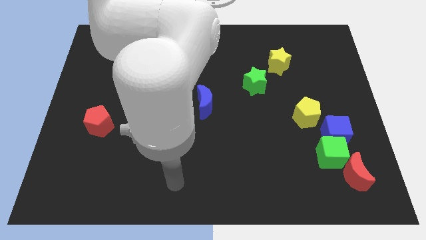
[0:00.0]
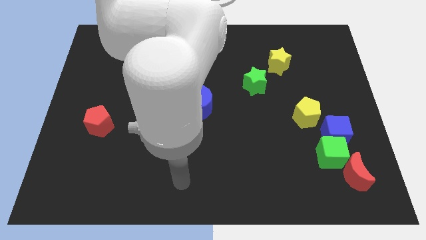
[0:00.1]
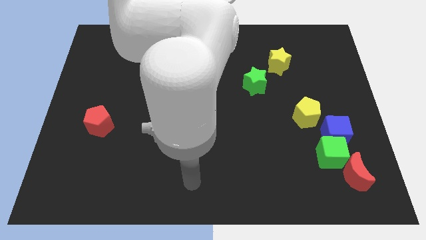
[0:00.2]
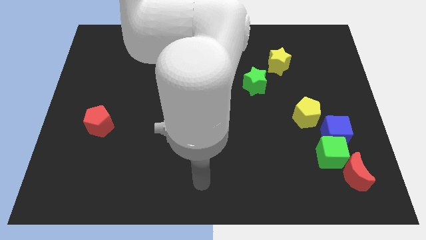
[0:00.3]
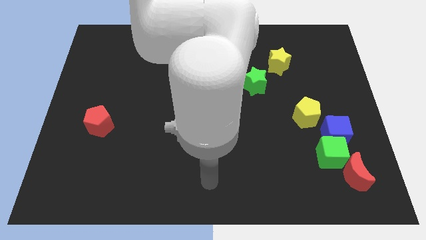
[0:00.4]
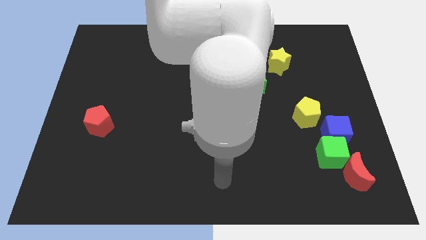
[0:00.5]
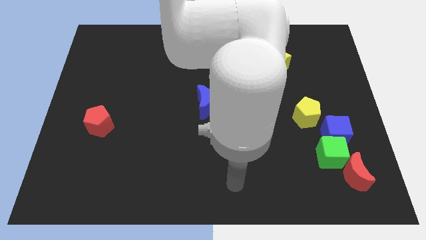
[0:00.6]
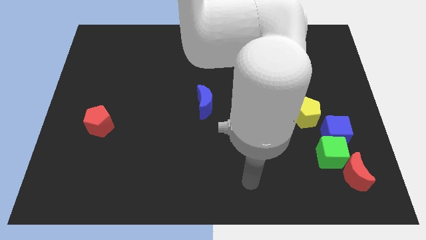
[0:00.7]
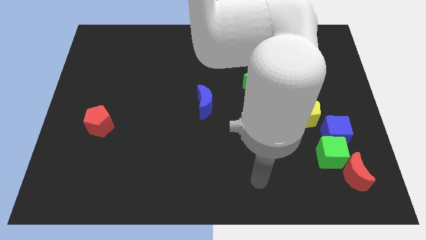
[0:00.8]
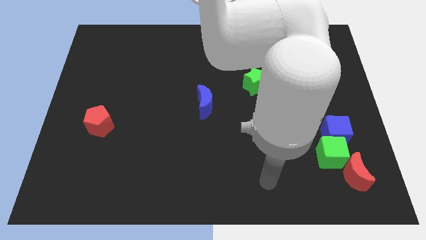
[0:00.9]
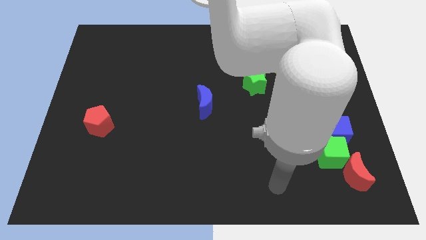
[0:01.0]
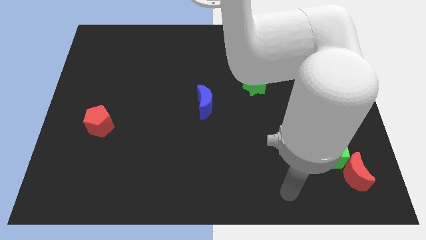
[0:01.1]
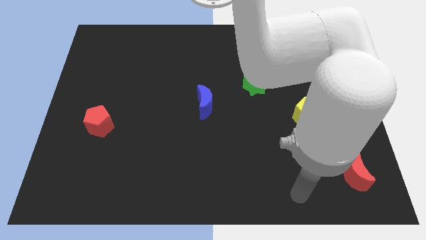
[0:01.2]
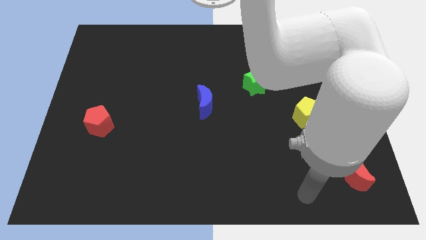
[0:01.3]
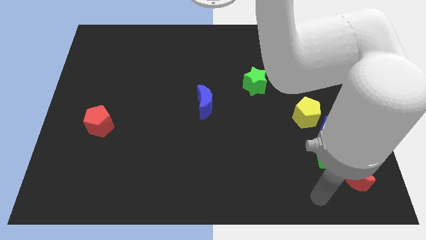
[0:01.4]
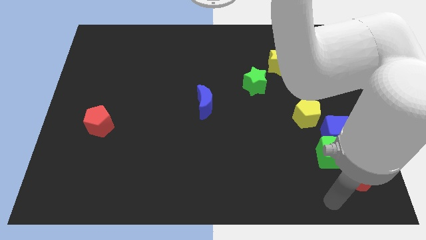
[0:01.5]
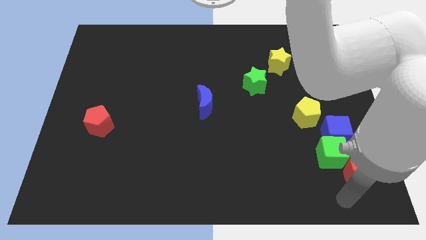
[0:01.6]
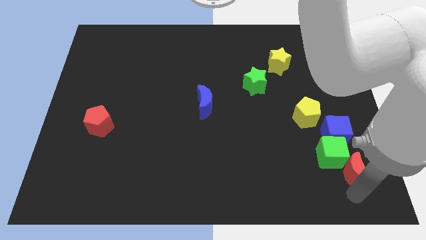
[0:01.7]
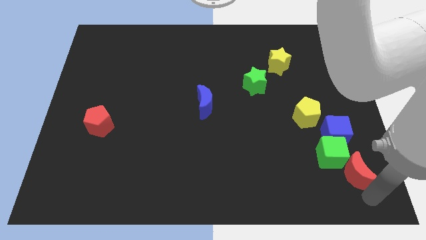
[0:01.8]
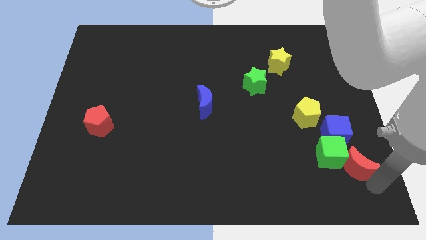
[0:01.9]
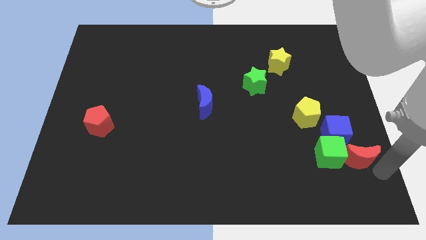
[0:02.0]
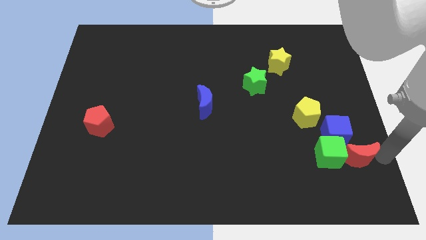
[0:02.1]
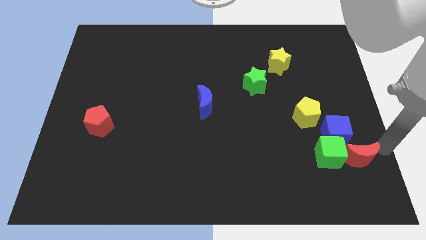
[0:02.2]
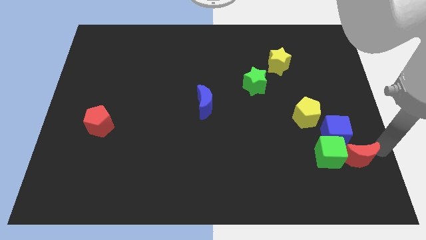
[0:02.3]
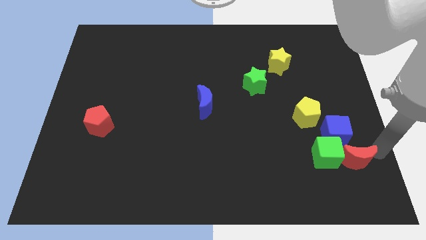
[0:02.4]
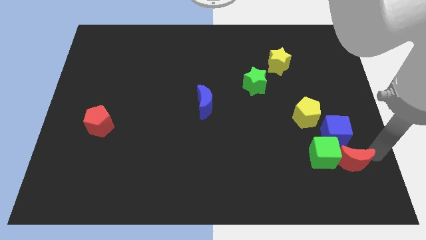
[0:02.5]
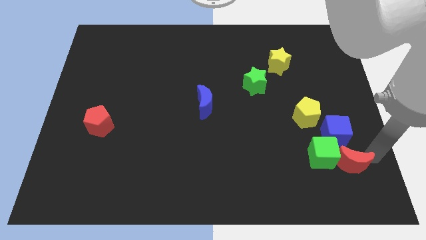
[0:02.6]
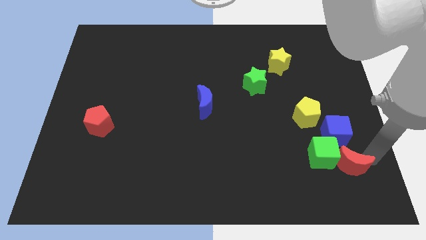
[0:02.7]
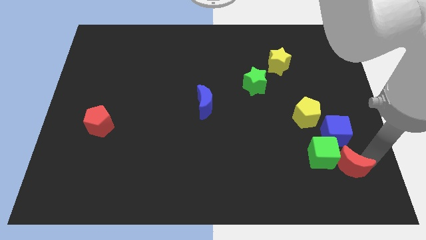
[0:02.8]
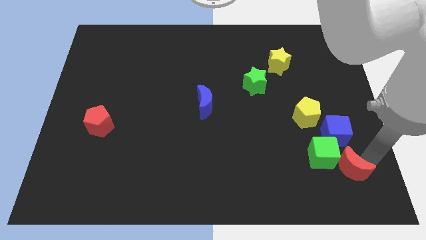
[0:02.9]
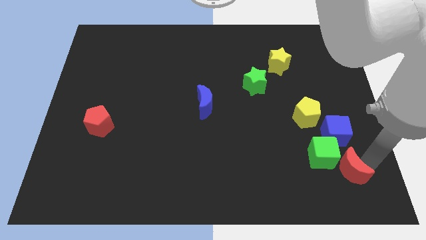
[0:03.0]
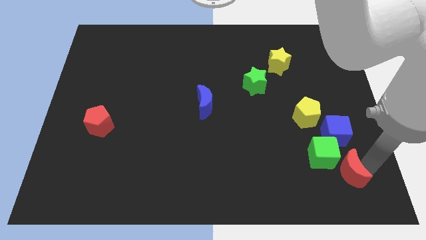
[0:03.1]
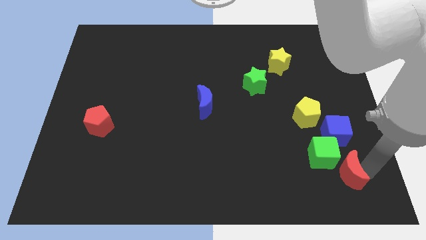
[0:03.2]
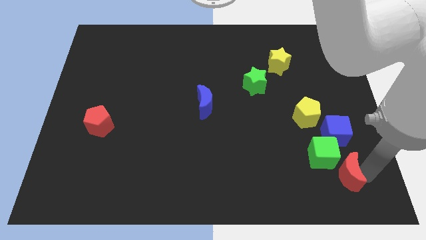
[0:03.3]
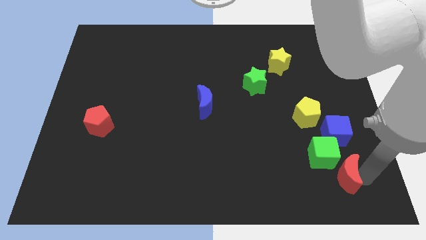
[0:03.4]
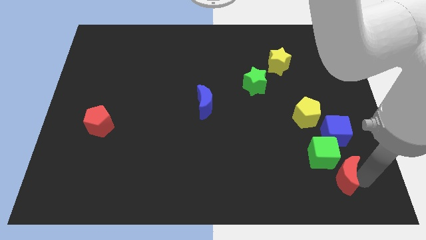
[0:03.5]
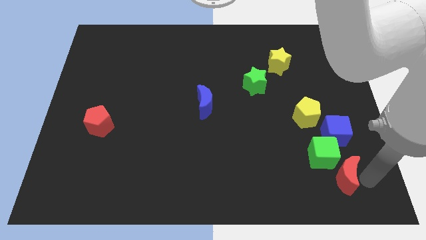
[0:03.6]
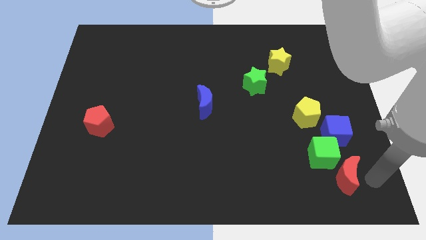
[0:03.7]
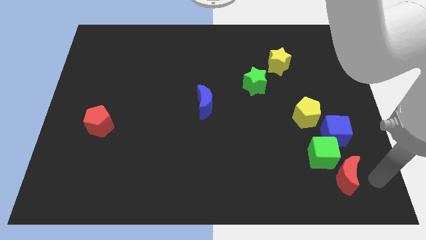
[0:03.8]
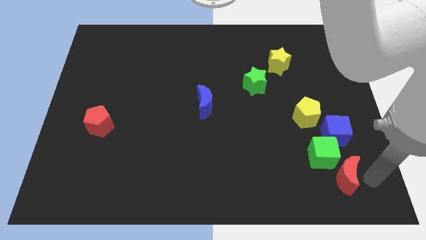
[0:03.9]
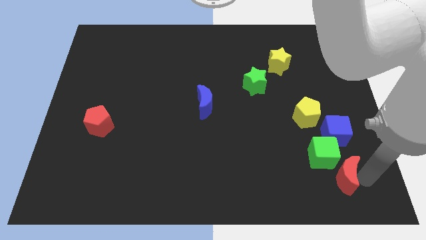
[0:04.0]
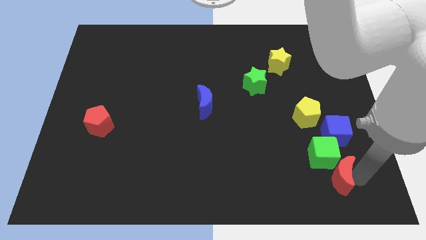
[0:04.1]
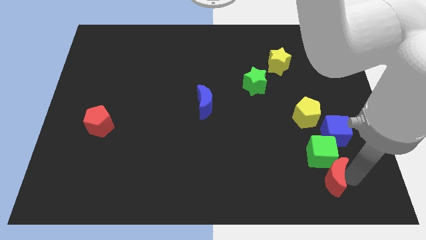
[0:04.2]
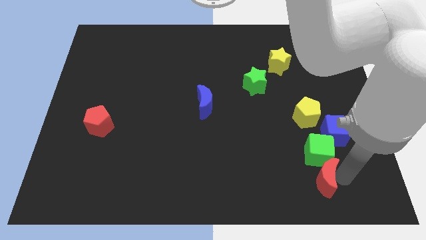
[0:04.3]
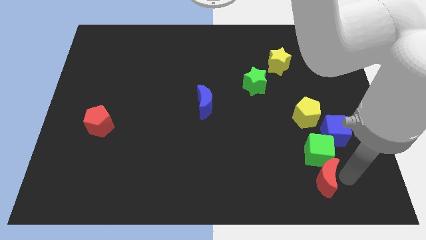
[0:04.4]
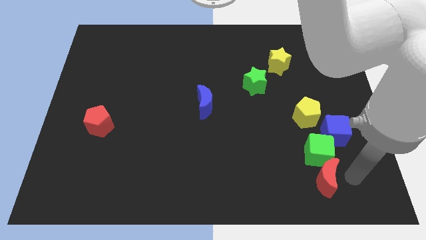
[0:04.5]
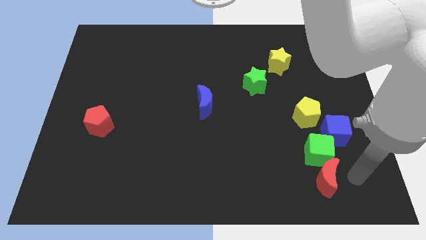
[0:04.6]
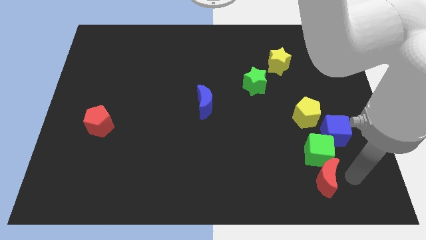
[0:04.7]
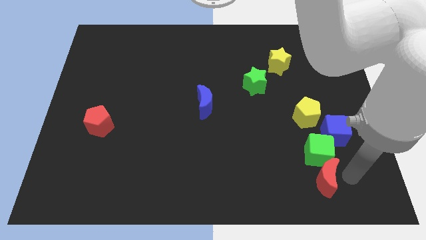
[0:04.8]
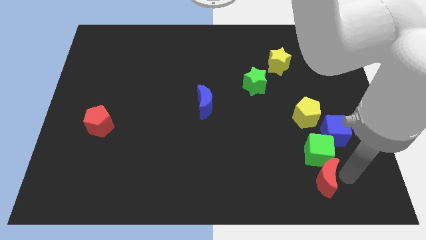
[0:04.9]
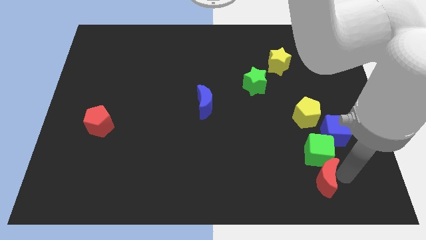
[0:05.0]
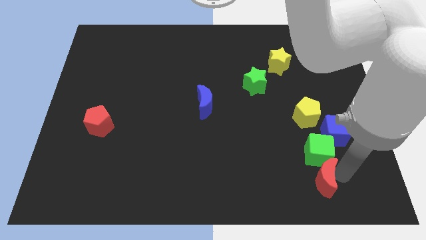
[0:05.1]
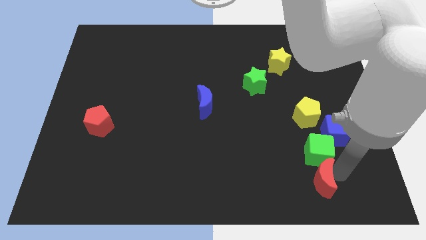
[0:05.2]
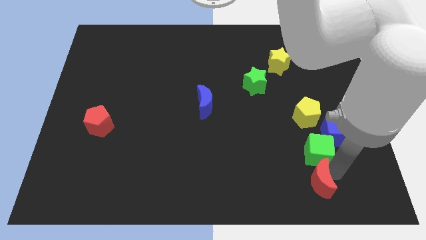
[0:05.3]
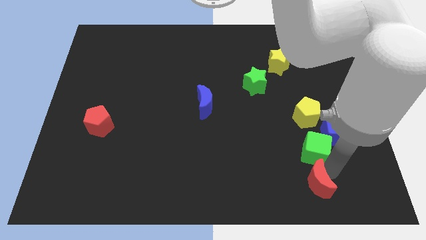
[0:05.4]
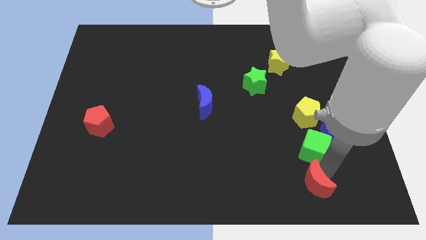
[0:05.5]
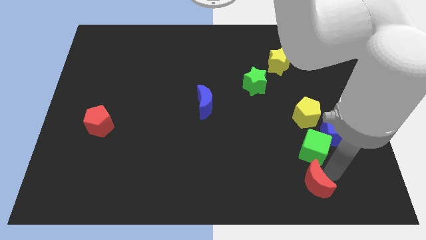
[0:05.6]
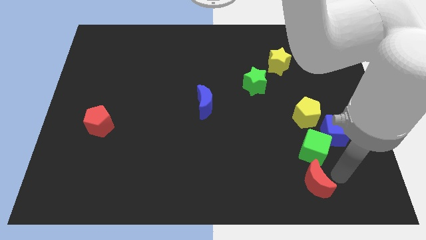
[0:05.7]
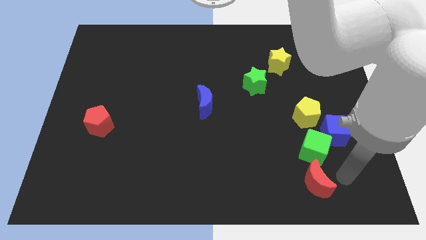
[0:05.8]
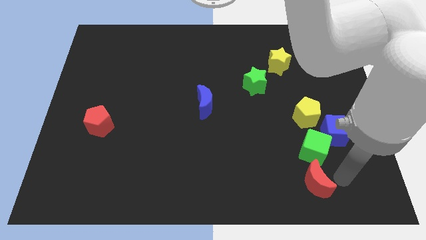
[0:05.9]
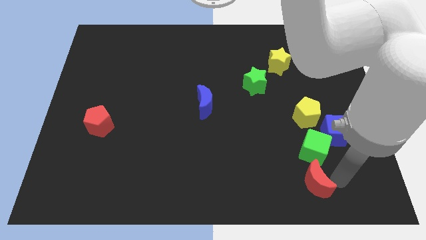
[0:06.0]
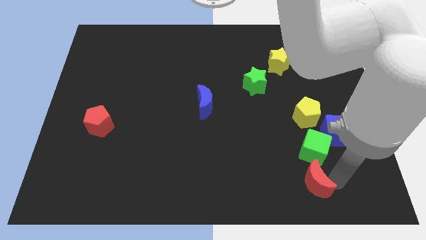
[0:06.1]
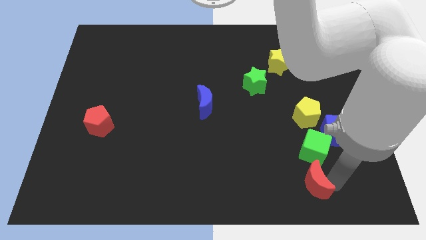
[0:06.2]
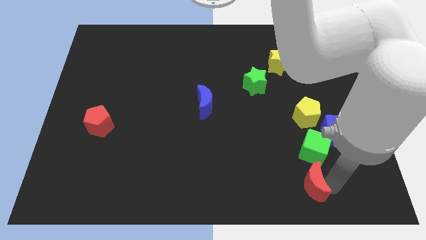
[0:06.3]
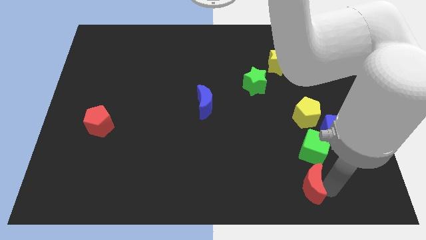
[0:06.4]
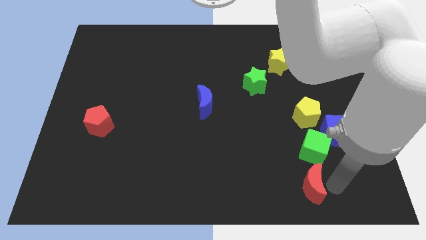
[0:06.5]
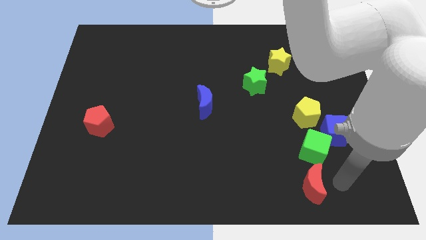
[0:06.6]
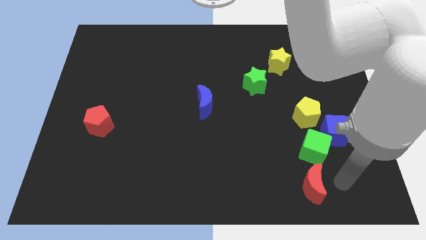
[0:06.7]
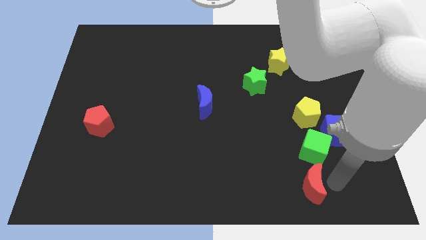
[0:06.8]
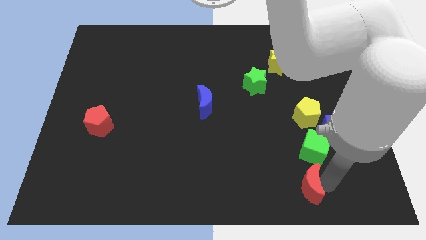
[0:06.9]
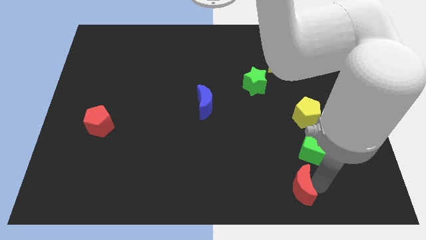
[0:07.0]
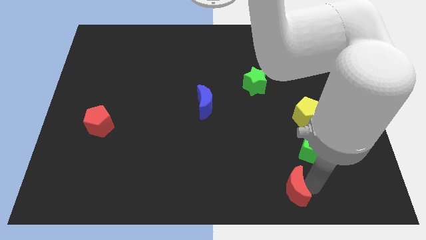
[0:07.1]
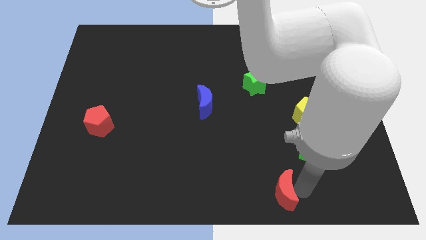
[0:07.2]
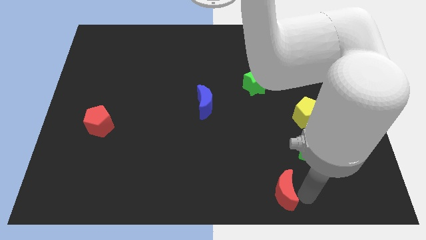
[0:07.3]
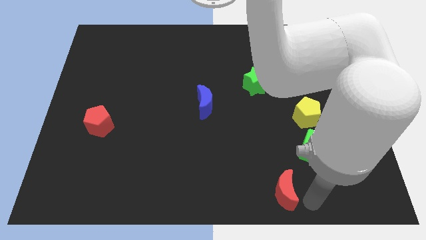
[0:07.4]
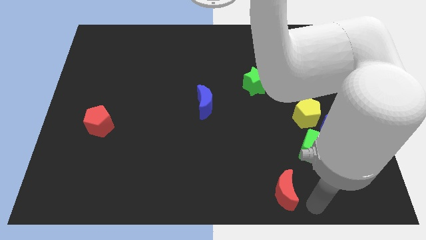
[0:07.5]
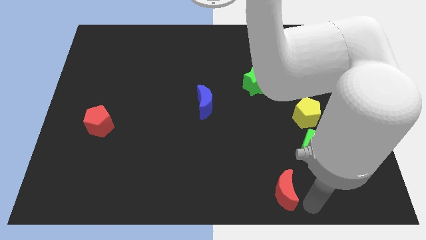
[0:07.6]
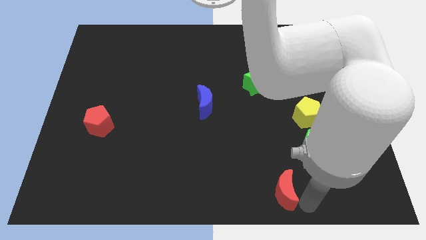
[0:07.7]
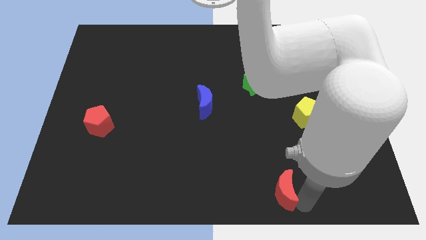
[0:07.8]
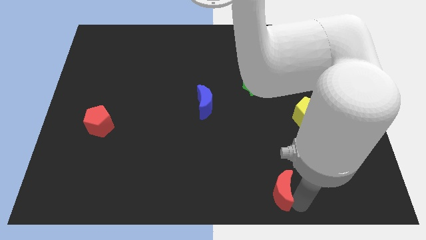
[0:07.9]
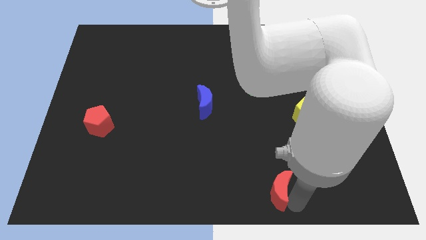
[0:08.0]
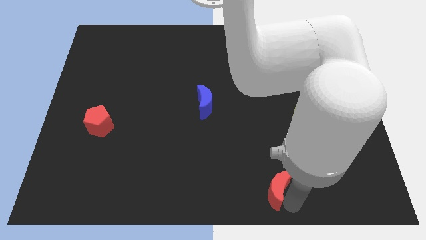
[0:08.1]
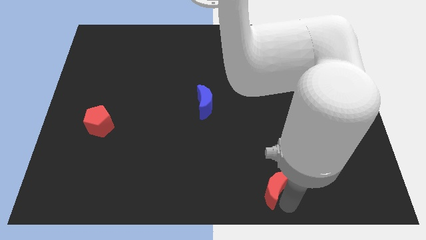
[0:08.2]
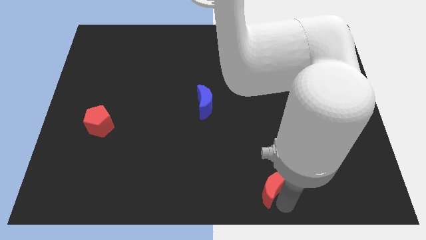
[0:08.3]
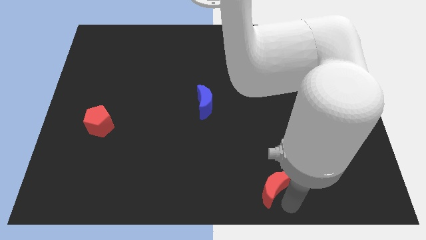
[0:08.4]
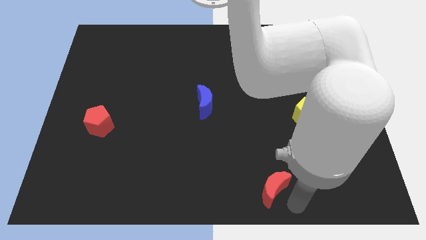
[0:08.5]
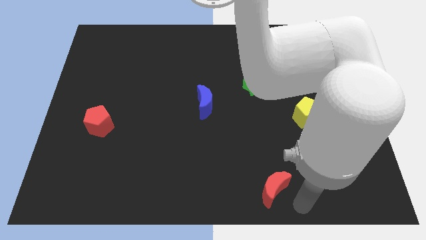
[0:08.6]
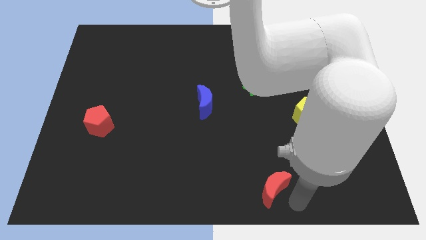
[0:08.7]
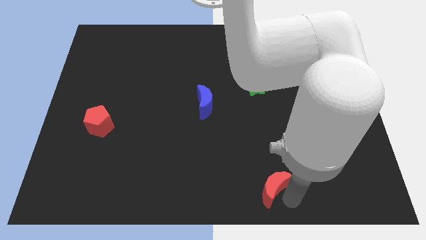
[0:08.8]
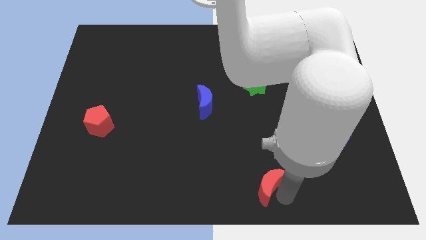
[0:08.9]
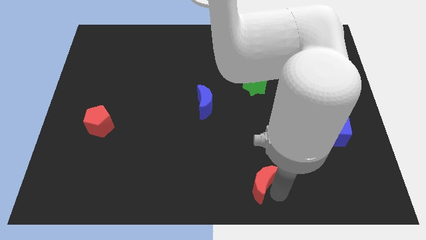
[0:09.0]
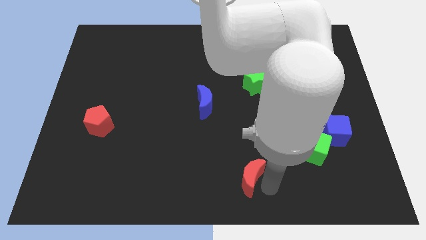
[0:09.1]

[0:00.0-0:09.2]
slide the red moon to the left
